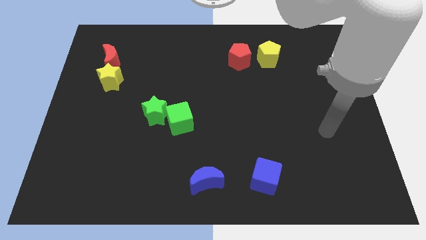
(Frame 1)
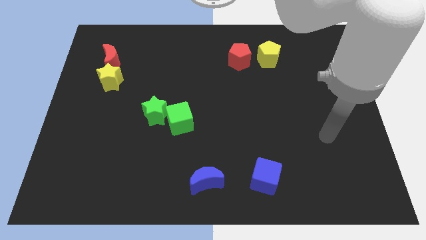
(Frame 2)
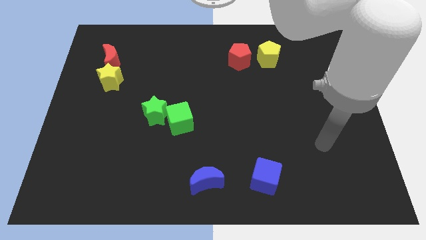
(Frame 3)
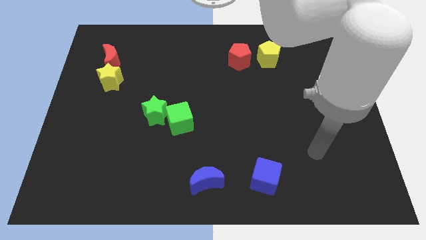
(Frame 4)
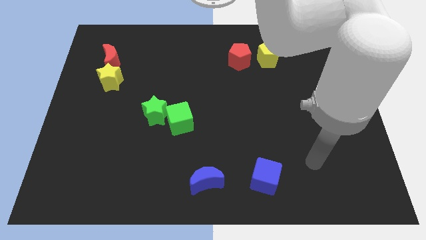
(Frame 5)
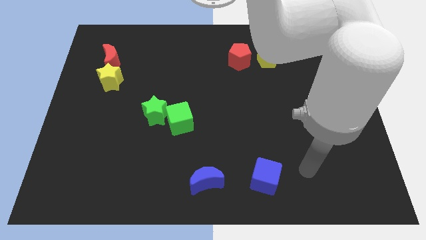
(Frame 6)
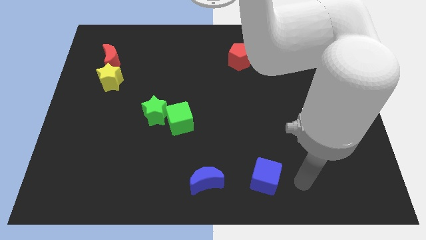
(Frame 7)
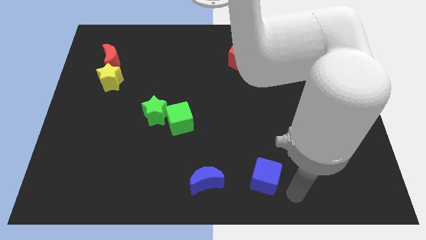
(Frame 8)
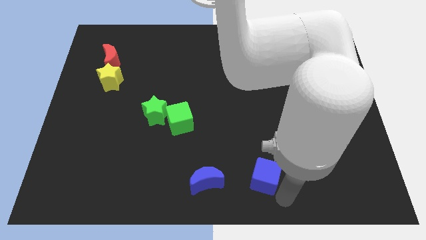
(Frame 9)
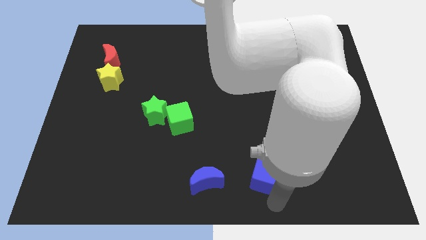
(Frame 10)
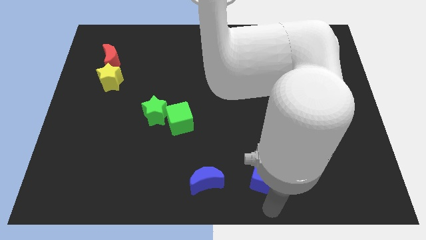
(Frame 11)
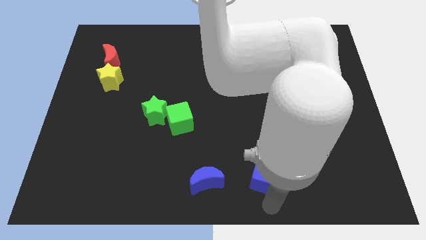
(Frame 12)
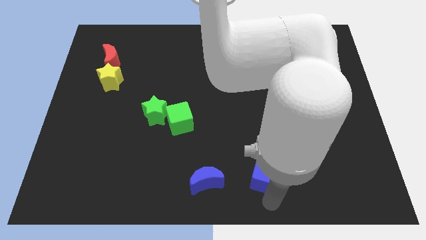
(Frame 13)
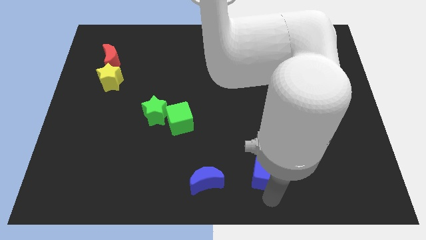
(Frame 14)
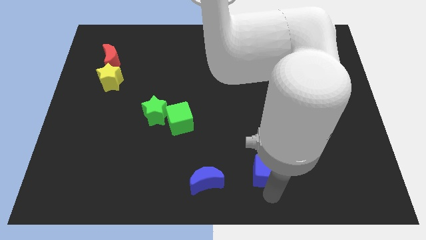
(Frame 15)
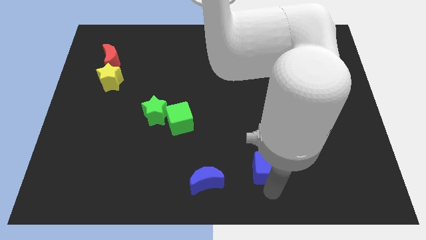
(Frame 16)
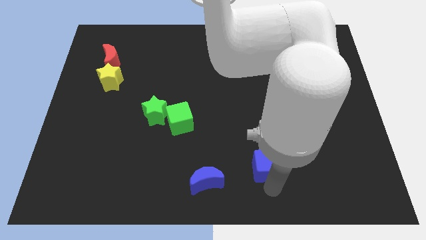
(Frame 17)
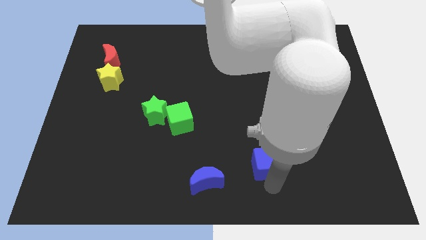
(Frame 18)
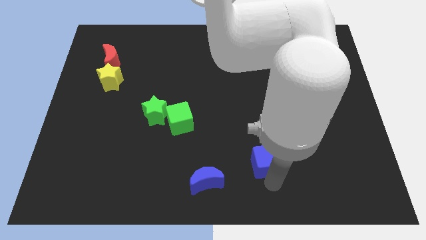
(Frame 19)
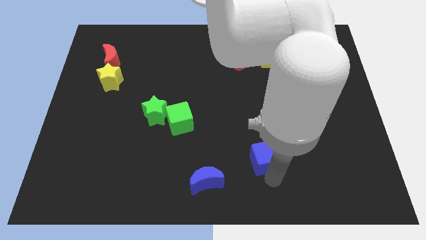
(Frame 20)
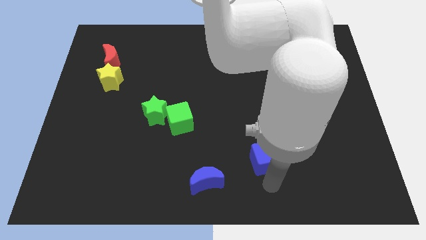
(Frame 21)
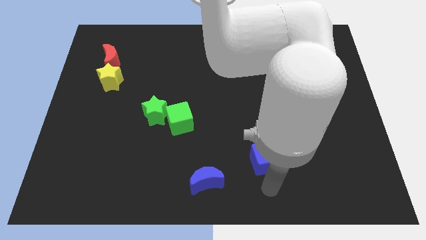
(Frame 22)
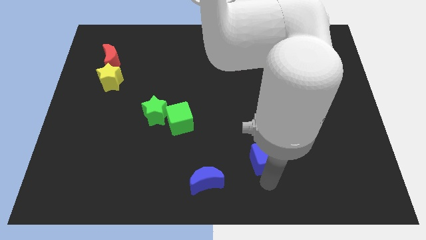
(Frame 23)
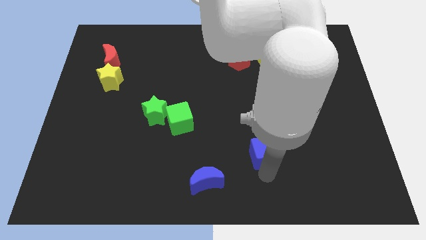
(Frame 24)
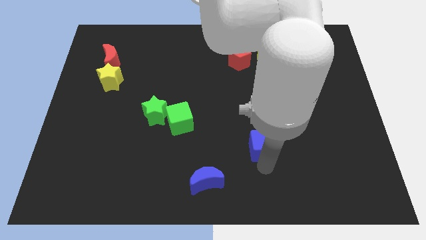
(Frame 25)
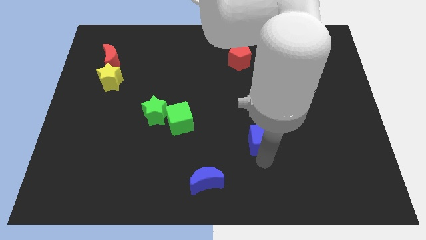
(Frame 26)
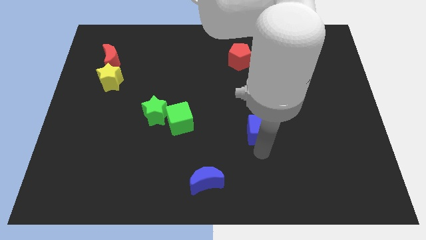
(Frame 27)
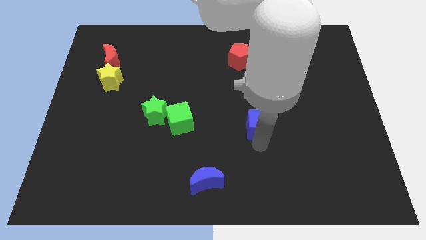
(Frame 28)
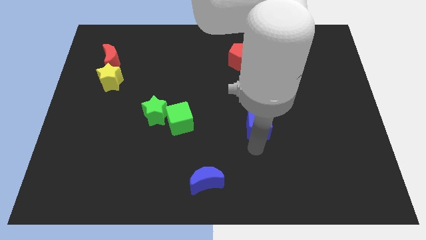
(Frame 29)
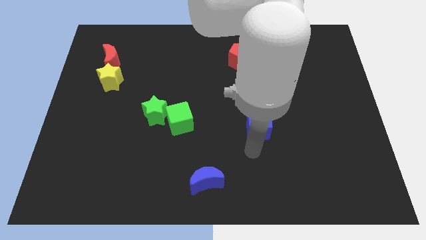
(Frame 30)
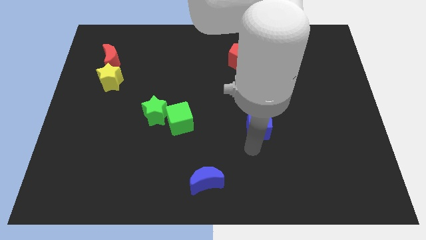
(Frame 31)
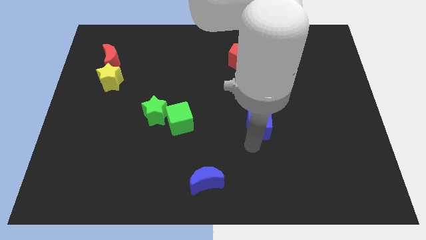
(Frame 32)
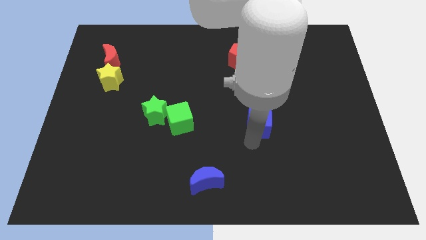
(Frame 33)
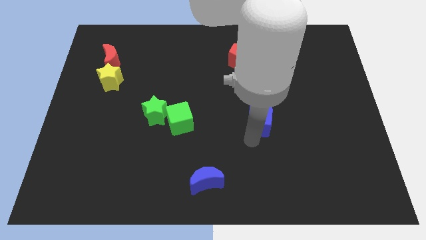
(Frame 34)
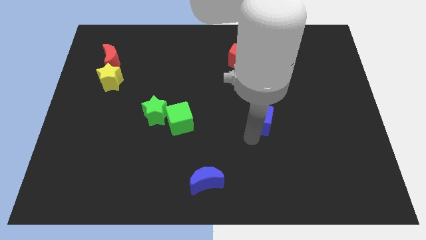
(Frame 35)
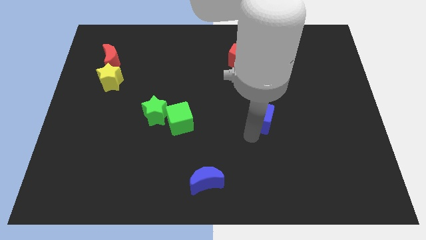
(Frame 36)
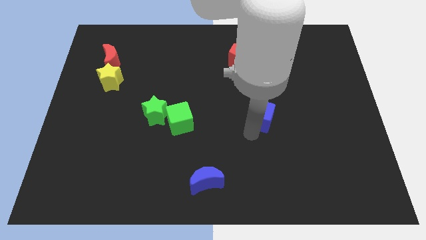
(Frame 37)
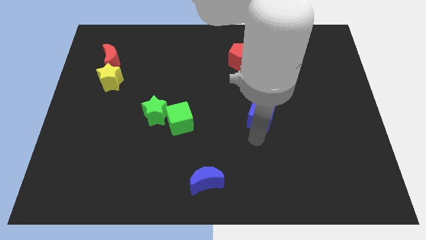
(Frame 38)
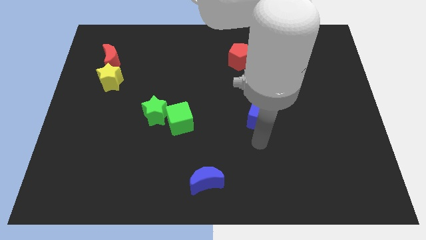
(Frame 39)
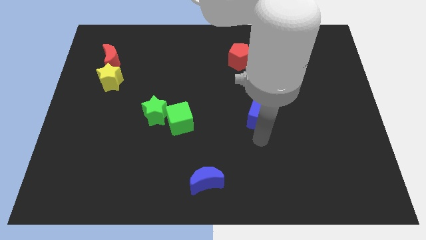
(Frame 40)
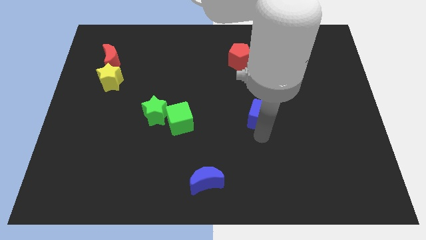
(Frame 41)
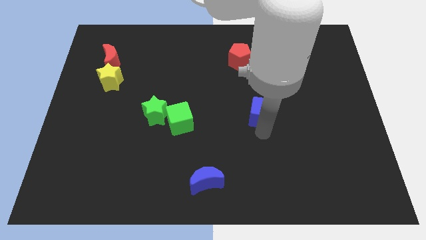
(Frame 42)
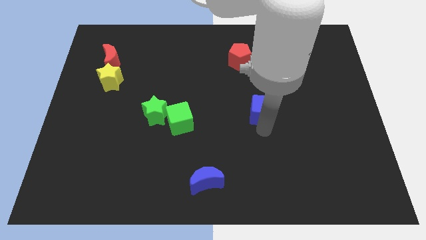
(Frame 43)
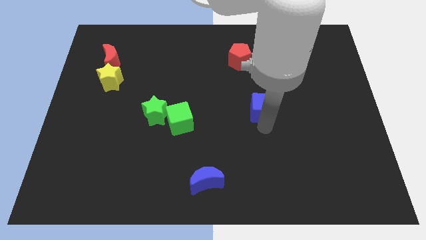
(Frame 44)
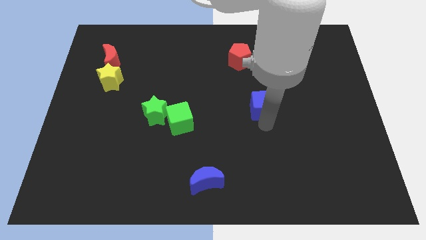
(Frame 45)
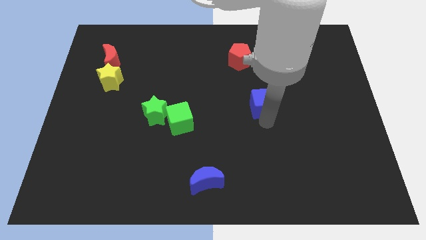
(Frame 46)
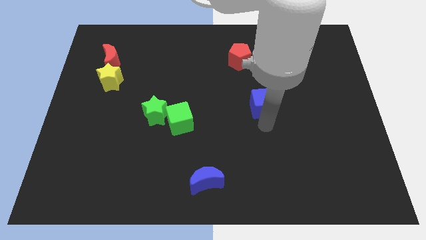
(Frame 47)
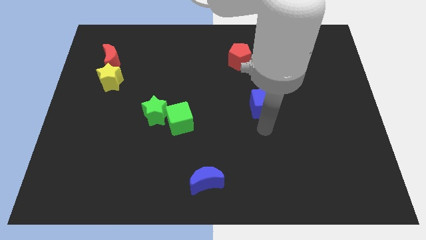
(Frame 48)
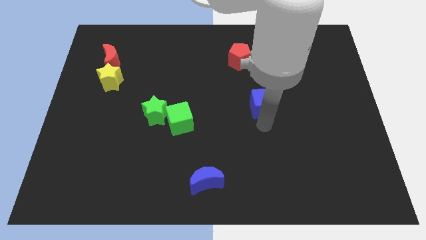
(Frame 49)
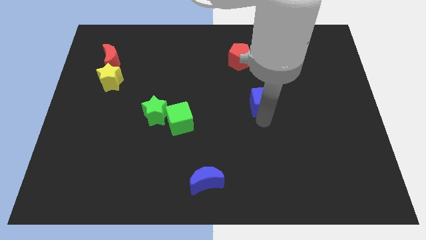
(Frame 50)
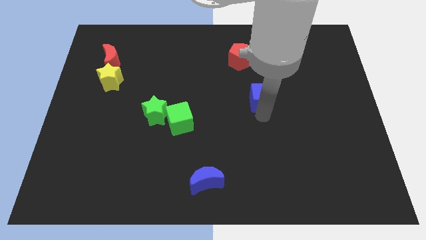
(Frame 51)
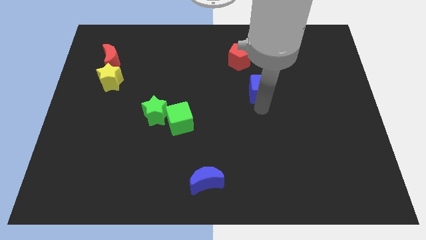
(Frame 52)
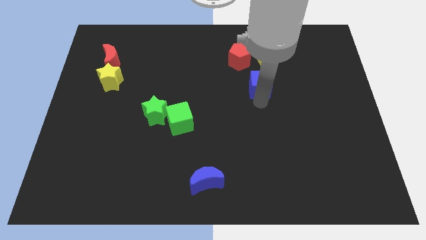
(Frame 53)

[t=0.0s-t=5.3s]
slide the blue cube to the bottom right side of the red pentagon
